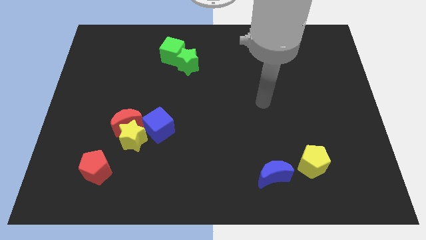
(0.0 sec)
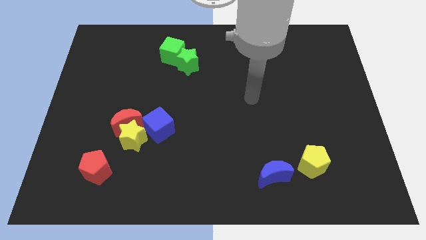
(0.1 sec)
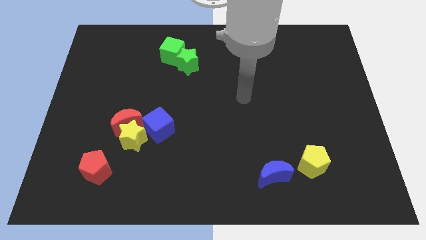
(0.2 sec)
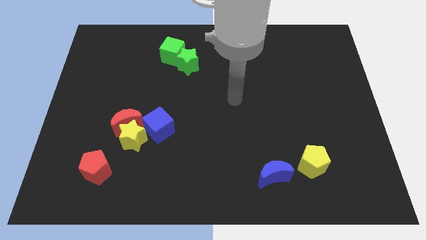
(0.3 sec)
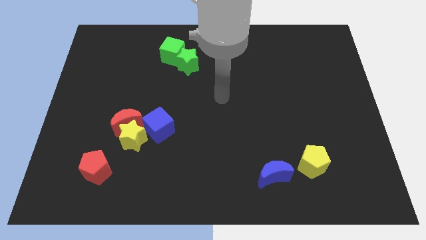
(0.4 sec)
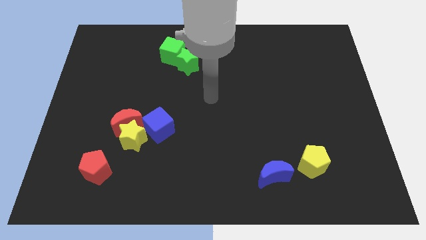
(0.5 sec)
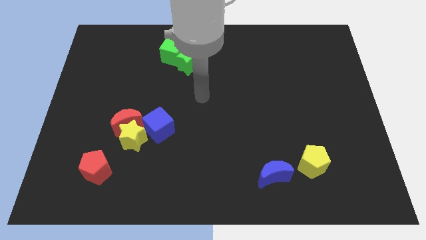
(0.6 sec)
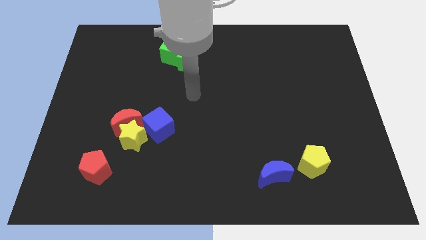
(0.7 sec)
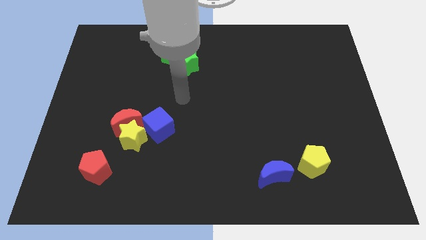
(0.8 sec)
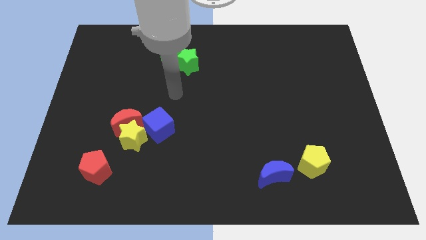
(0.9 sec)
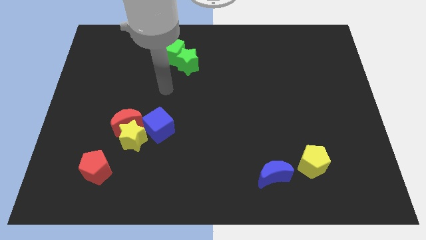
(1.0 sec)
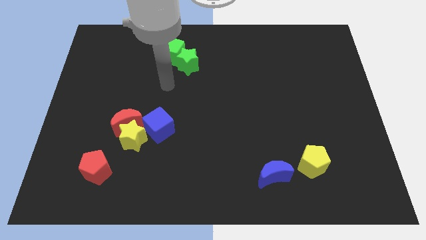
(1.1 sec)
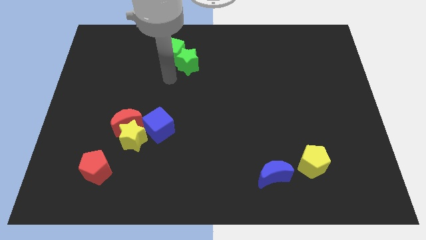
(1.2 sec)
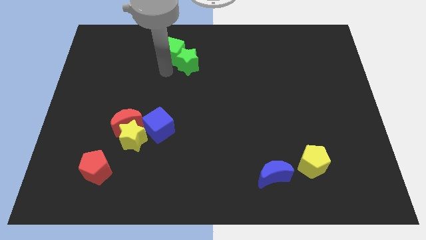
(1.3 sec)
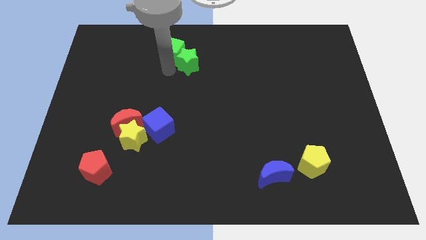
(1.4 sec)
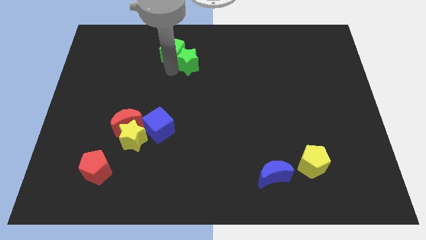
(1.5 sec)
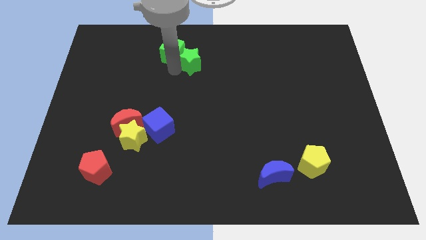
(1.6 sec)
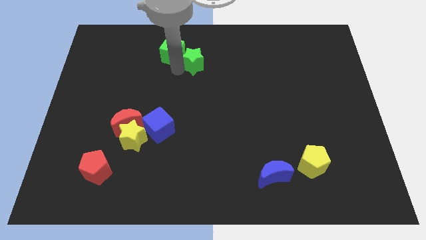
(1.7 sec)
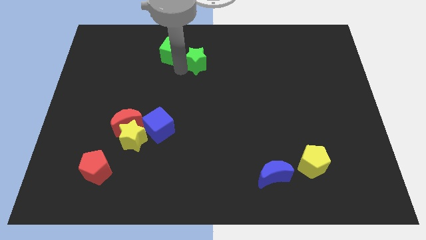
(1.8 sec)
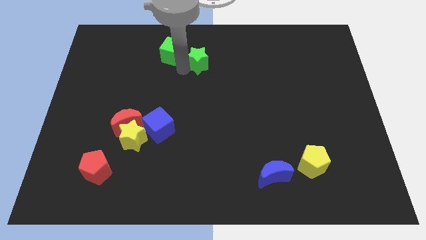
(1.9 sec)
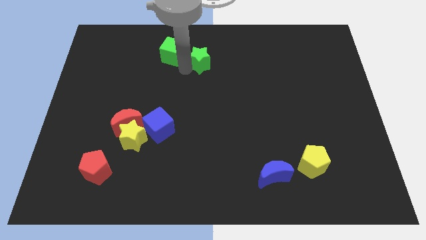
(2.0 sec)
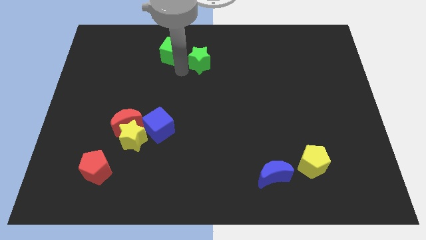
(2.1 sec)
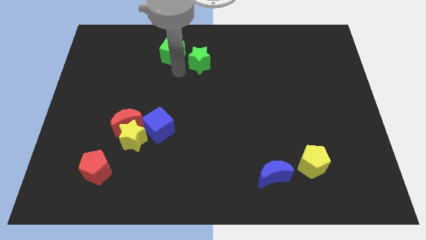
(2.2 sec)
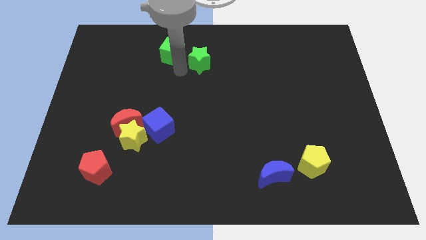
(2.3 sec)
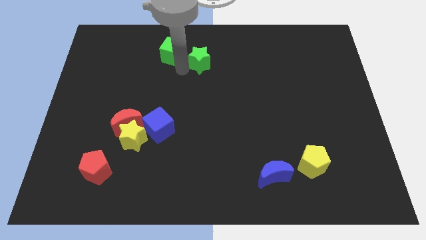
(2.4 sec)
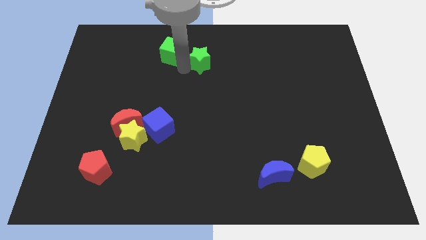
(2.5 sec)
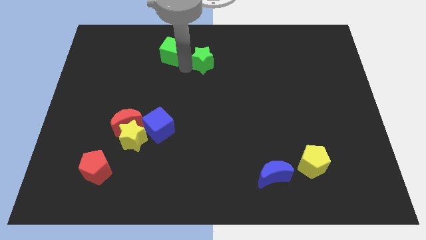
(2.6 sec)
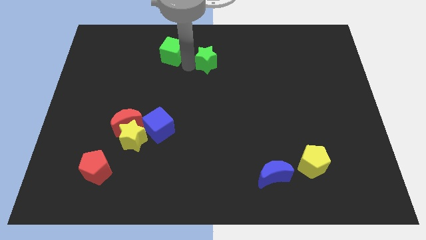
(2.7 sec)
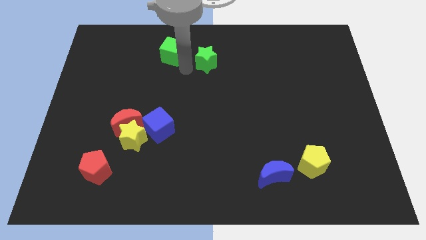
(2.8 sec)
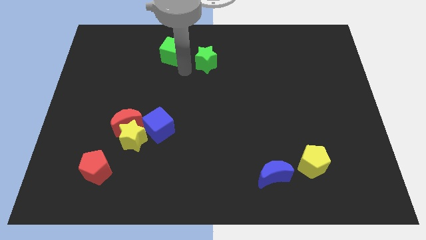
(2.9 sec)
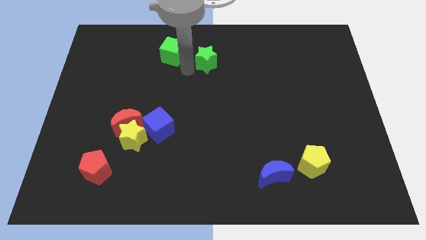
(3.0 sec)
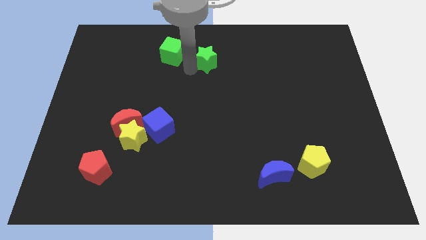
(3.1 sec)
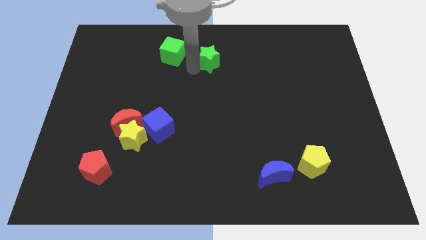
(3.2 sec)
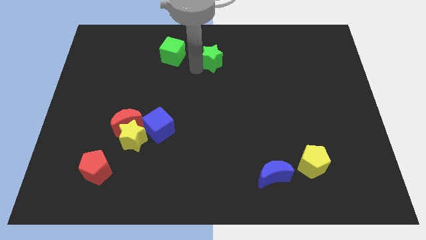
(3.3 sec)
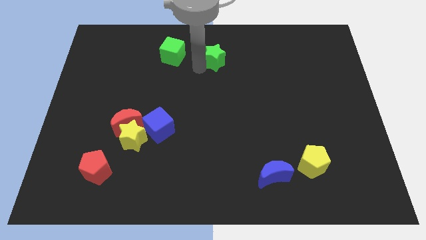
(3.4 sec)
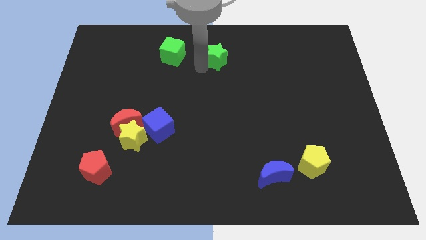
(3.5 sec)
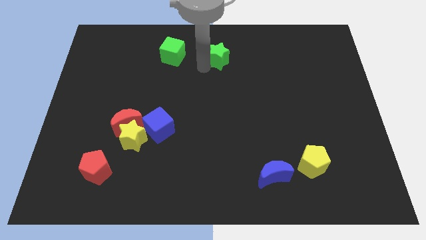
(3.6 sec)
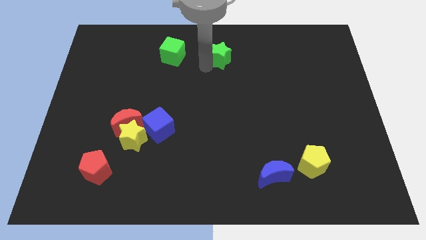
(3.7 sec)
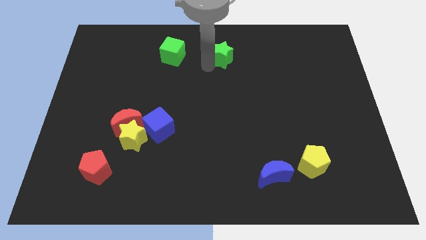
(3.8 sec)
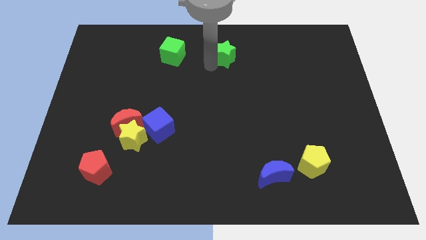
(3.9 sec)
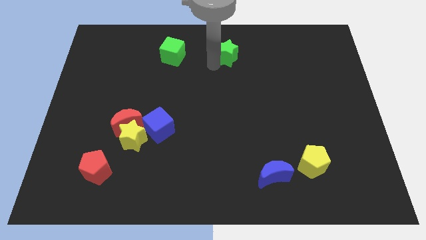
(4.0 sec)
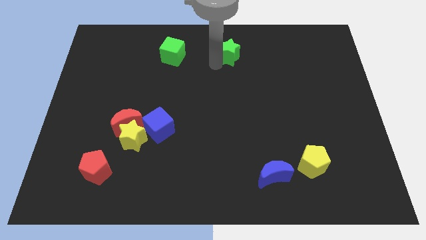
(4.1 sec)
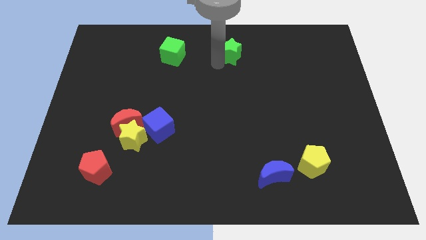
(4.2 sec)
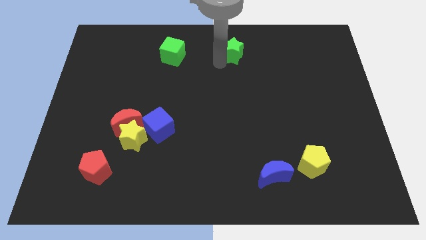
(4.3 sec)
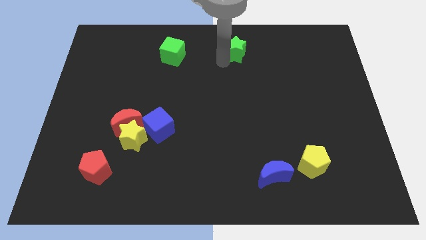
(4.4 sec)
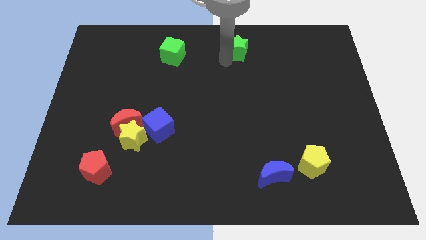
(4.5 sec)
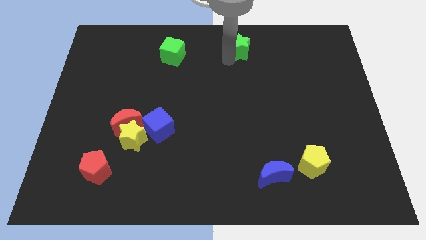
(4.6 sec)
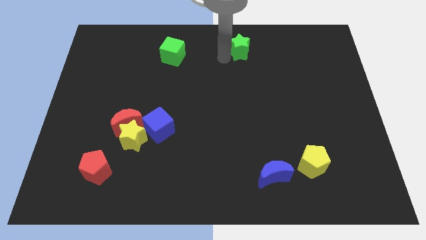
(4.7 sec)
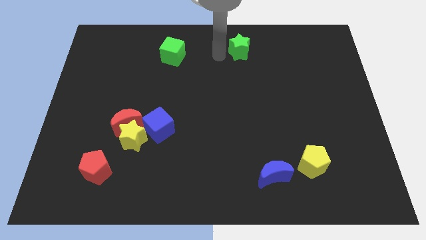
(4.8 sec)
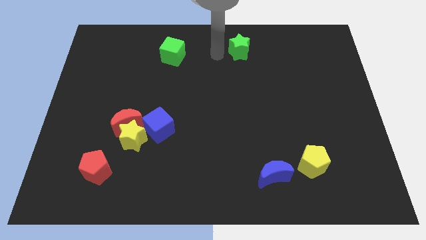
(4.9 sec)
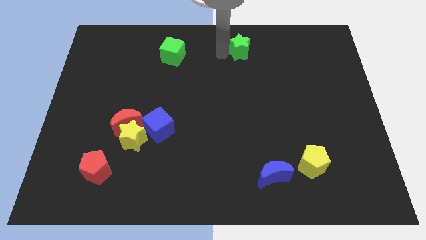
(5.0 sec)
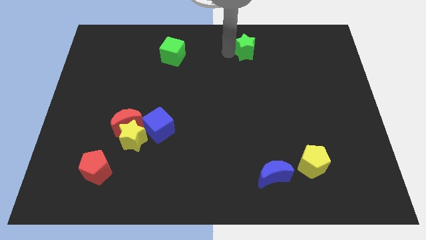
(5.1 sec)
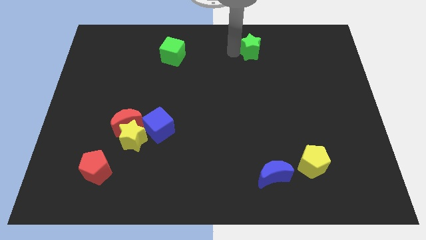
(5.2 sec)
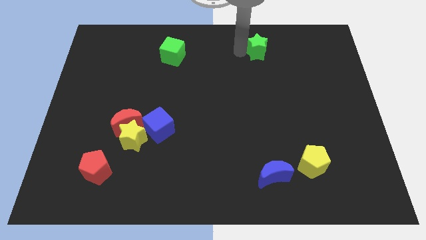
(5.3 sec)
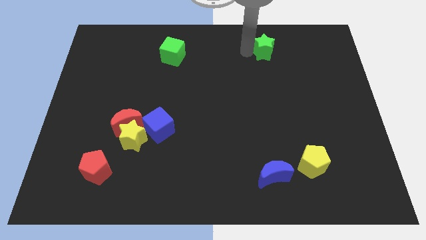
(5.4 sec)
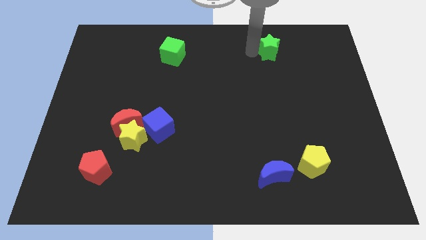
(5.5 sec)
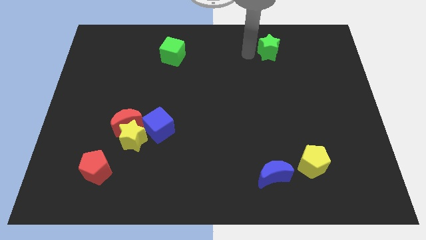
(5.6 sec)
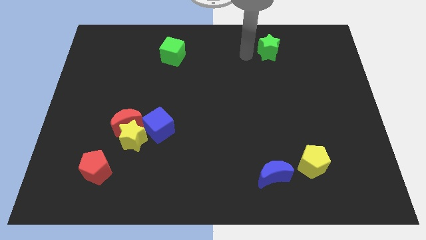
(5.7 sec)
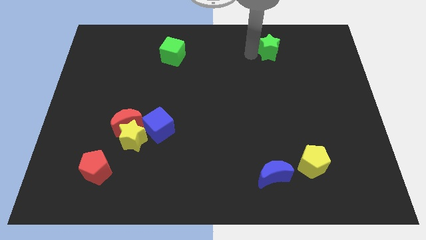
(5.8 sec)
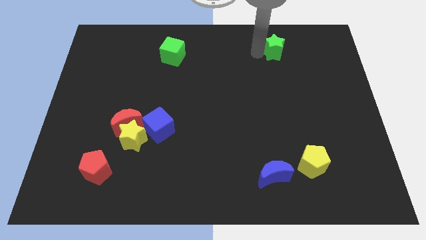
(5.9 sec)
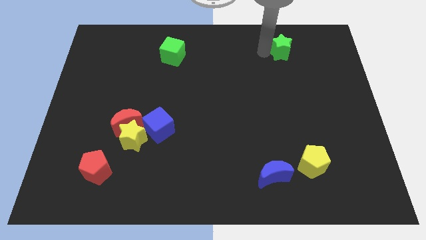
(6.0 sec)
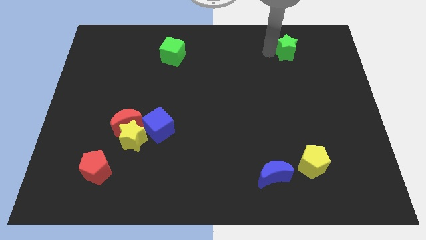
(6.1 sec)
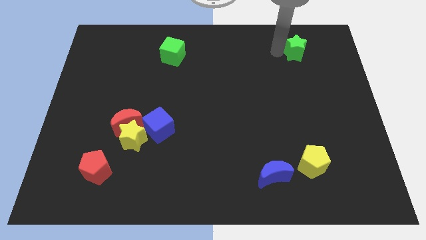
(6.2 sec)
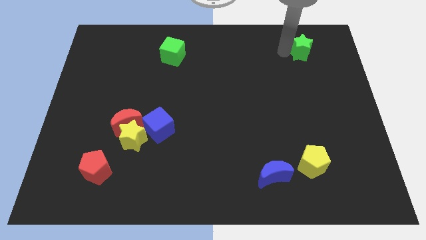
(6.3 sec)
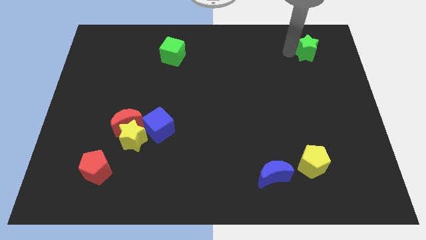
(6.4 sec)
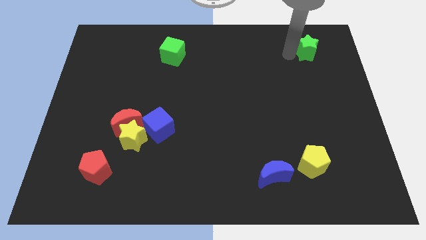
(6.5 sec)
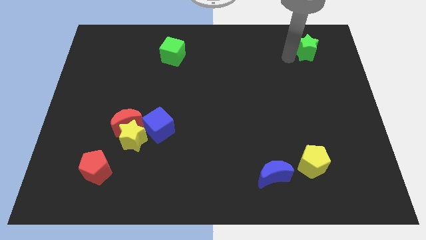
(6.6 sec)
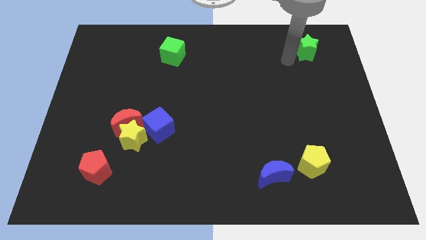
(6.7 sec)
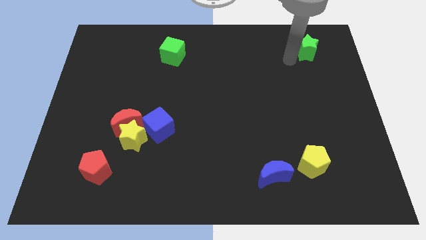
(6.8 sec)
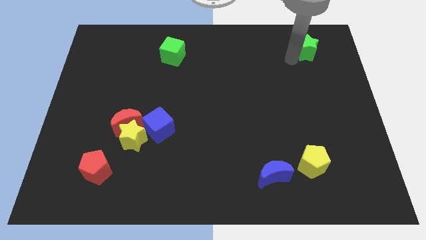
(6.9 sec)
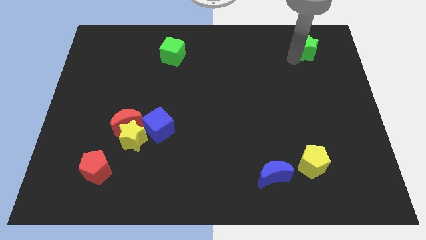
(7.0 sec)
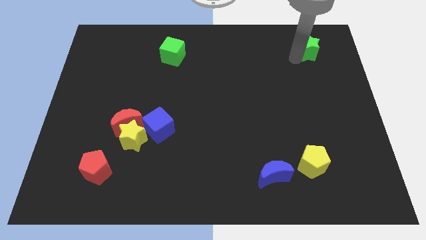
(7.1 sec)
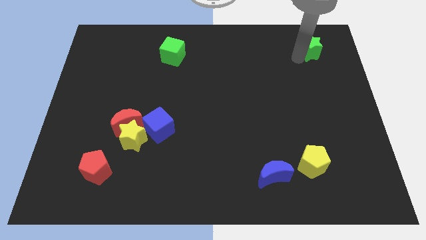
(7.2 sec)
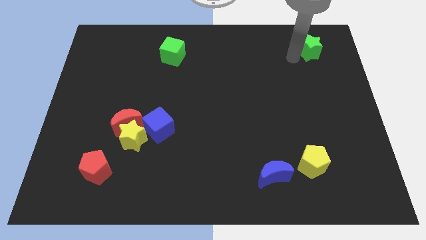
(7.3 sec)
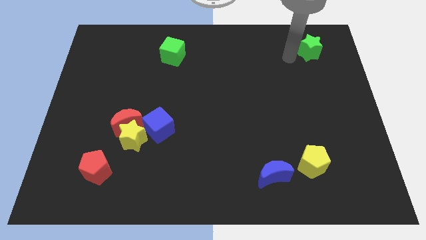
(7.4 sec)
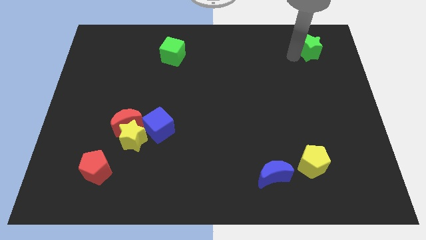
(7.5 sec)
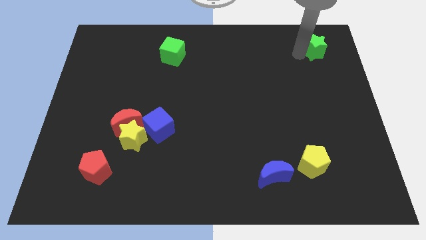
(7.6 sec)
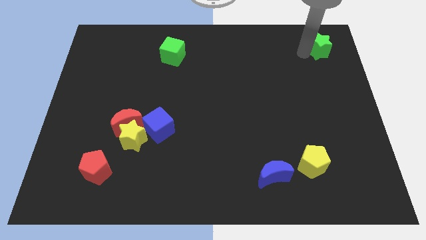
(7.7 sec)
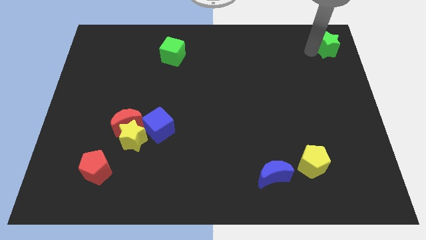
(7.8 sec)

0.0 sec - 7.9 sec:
push the green star to the top right

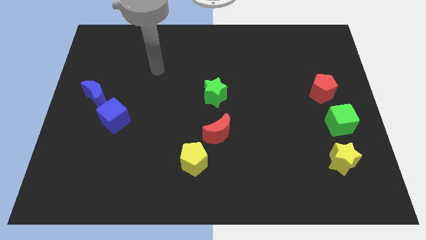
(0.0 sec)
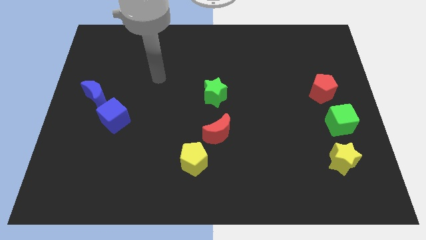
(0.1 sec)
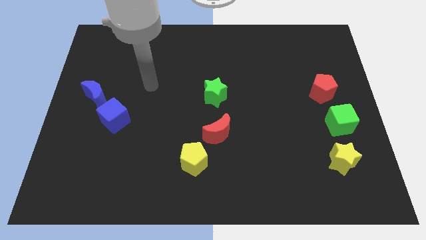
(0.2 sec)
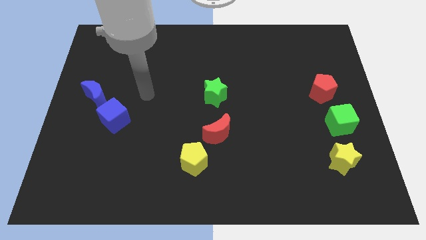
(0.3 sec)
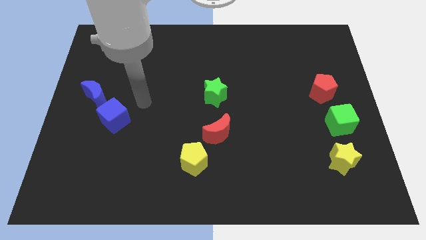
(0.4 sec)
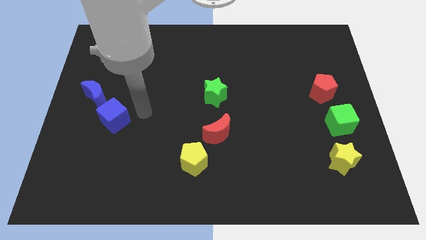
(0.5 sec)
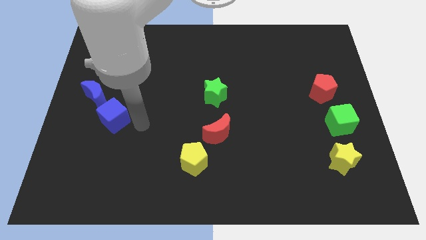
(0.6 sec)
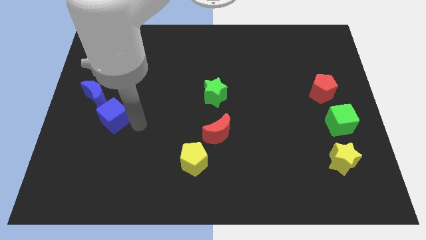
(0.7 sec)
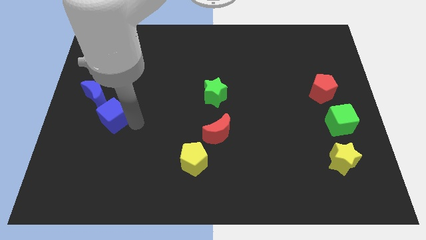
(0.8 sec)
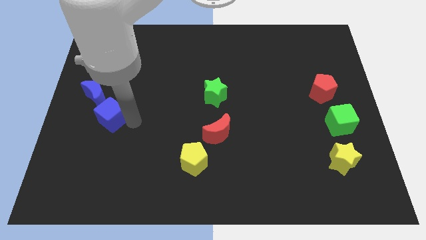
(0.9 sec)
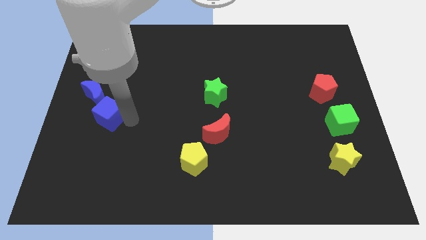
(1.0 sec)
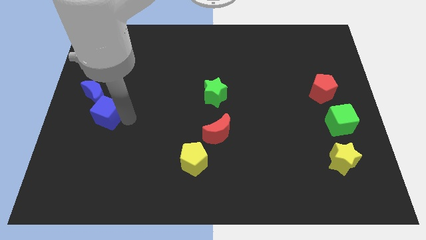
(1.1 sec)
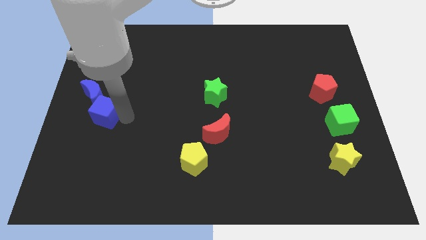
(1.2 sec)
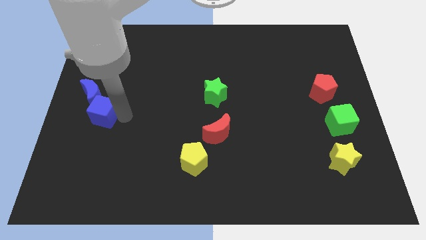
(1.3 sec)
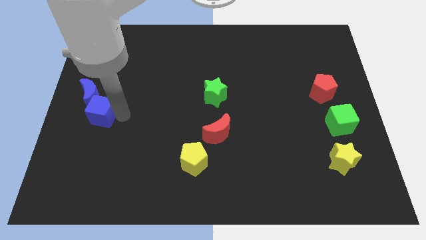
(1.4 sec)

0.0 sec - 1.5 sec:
slide the blue cube to the left side
